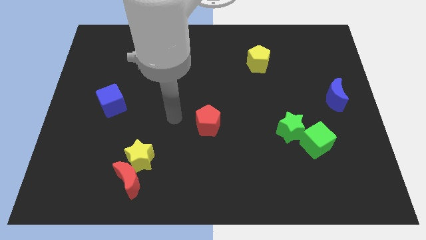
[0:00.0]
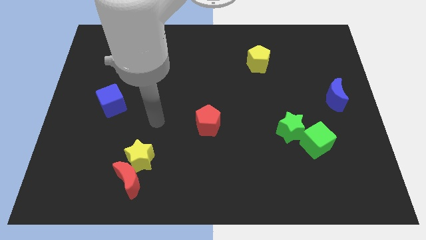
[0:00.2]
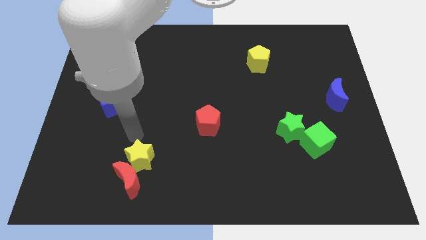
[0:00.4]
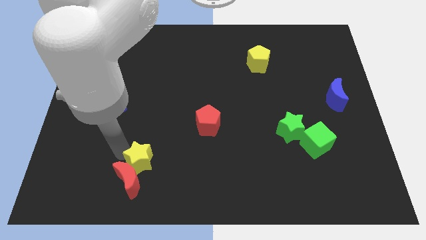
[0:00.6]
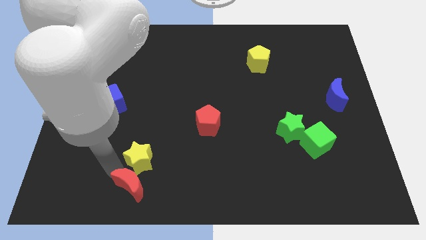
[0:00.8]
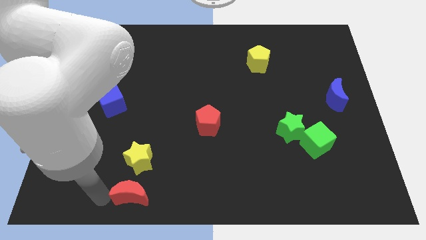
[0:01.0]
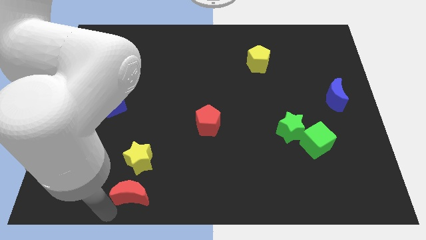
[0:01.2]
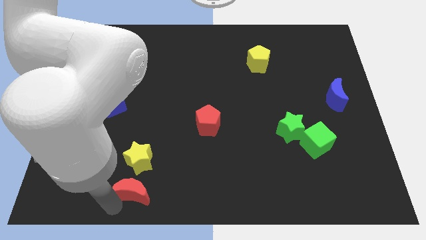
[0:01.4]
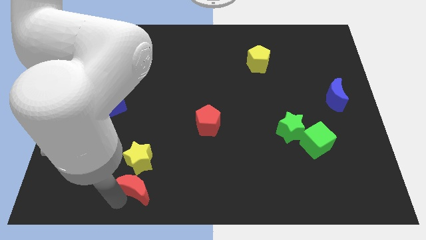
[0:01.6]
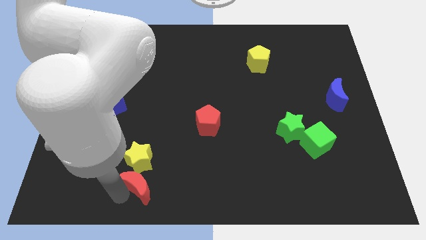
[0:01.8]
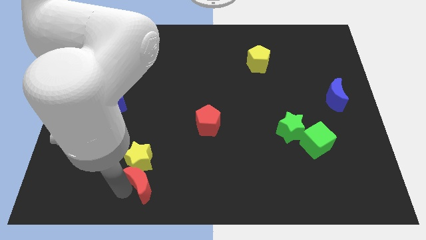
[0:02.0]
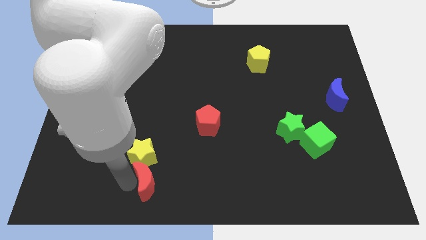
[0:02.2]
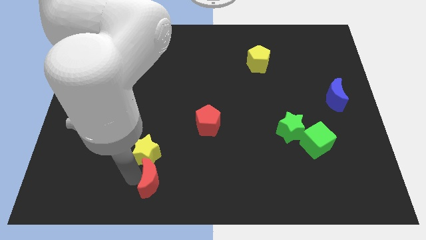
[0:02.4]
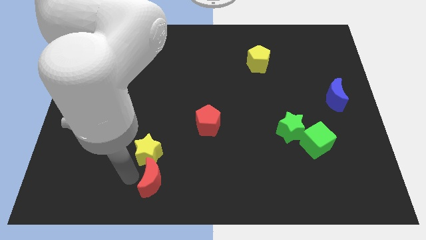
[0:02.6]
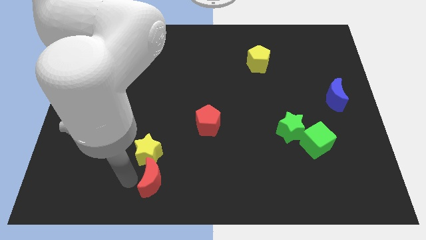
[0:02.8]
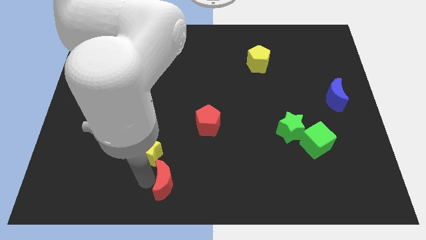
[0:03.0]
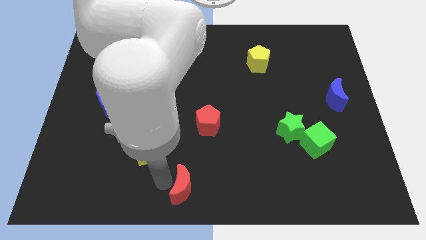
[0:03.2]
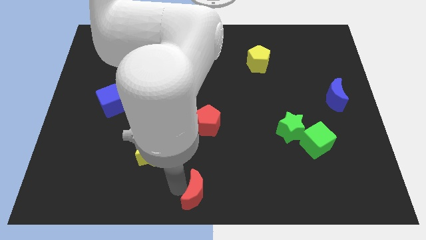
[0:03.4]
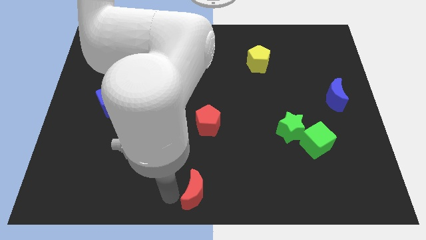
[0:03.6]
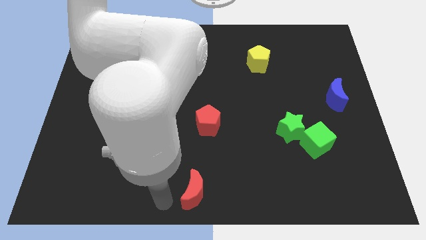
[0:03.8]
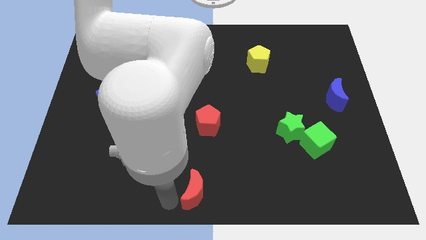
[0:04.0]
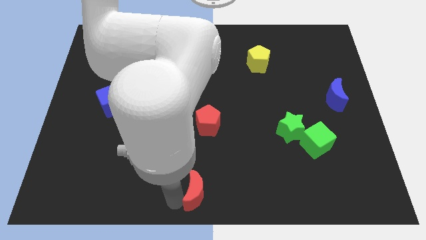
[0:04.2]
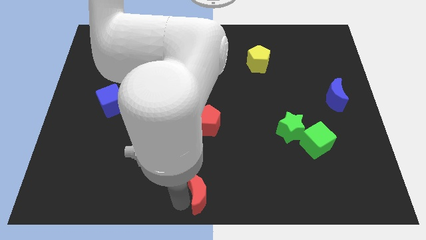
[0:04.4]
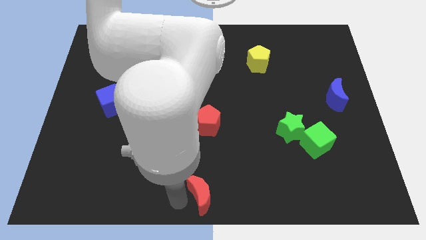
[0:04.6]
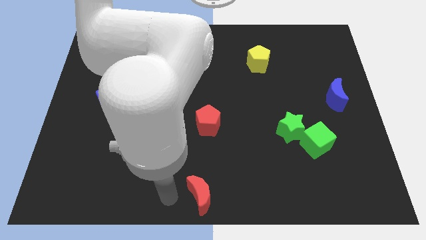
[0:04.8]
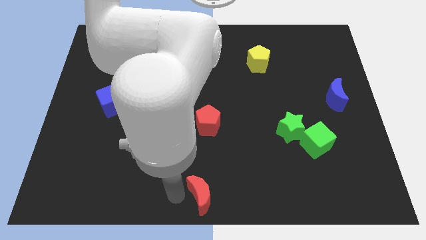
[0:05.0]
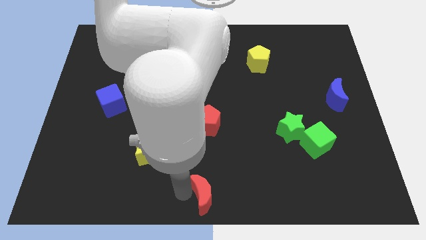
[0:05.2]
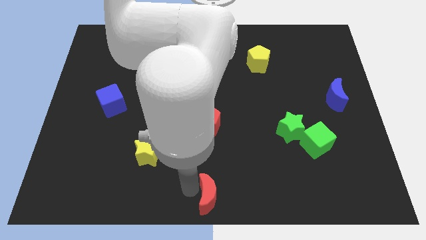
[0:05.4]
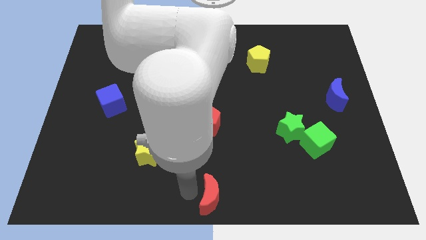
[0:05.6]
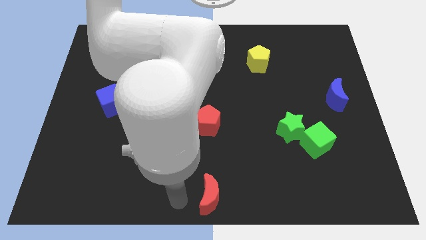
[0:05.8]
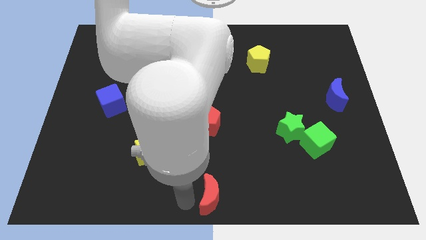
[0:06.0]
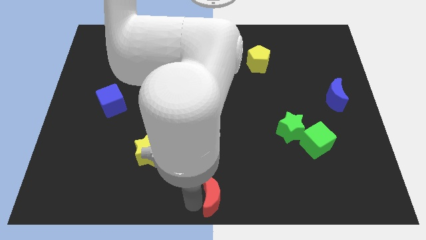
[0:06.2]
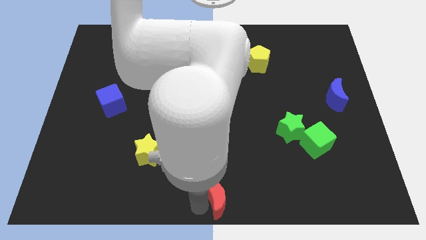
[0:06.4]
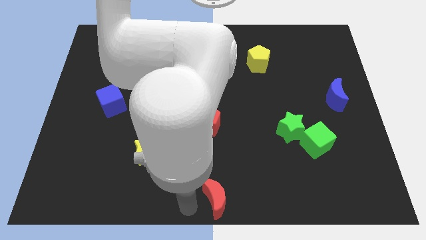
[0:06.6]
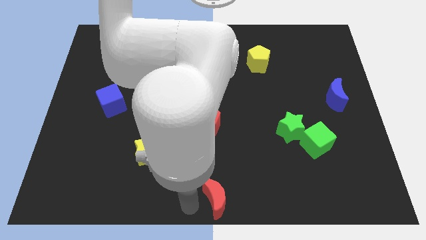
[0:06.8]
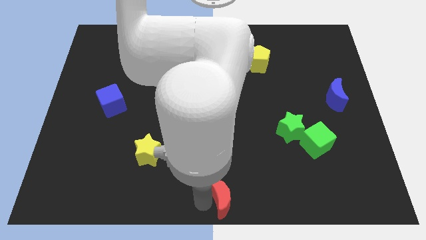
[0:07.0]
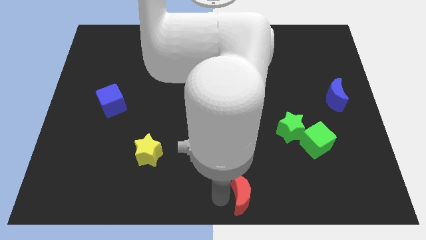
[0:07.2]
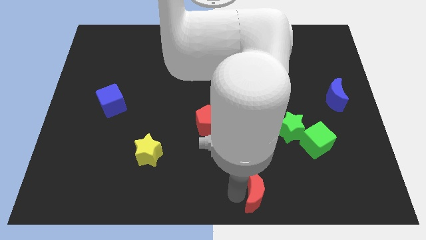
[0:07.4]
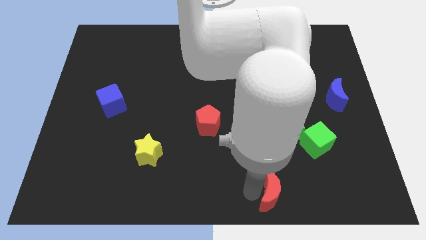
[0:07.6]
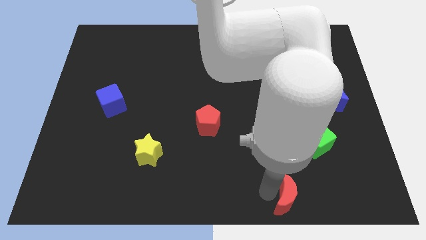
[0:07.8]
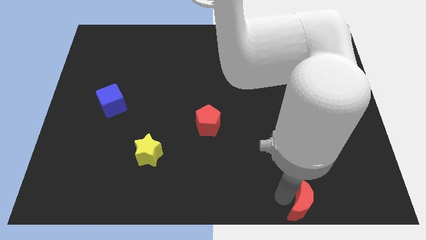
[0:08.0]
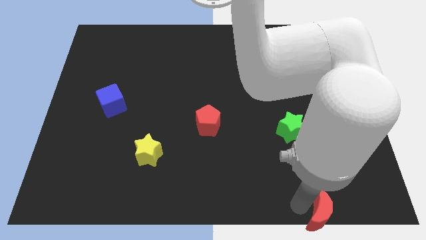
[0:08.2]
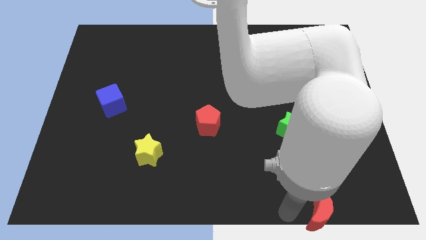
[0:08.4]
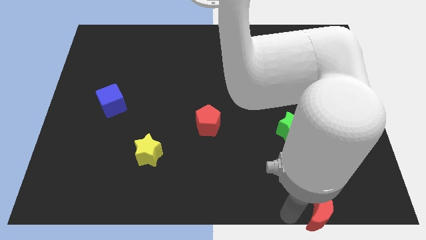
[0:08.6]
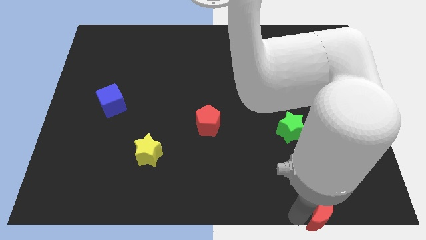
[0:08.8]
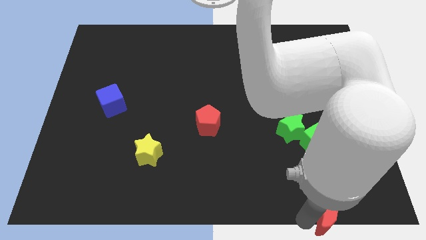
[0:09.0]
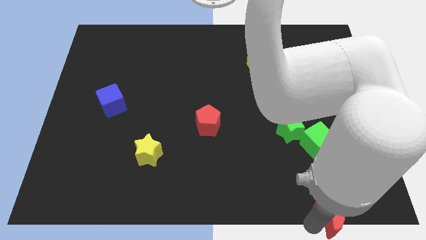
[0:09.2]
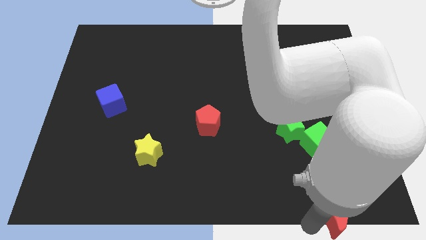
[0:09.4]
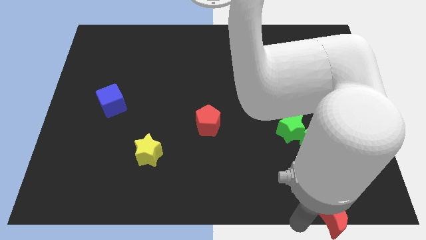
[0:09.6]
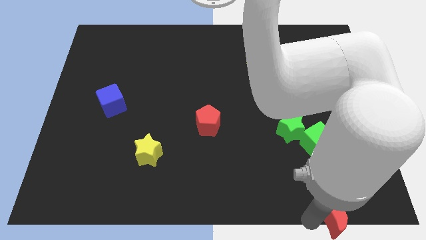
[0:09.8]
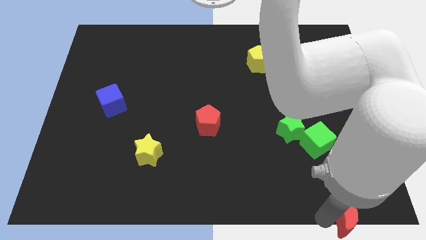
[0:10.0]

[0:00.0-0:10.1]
move the red moon to the bottom right of the board

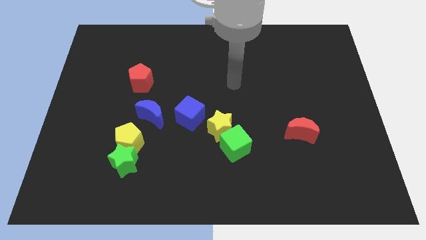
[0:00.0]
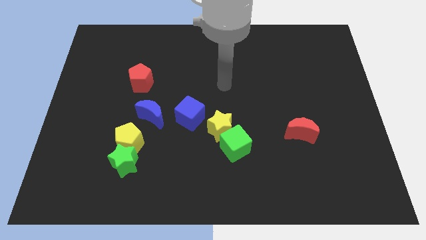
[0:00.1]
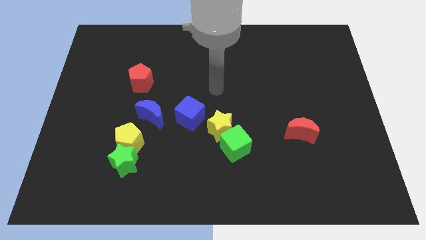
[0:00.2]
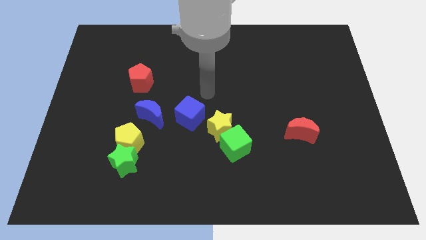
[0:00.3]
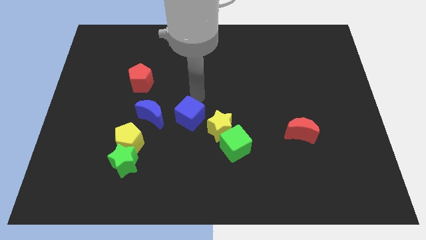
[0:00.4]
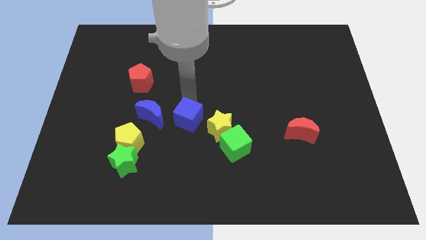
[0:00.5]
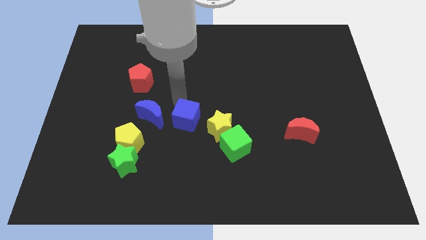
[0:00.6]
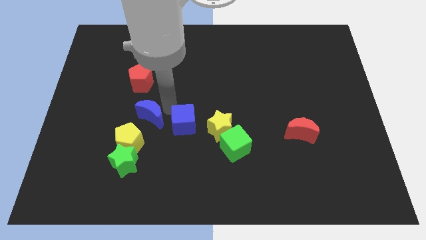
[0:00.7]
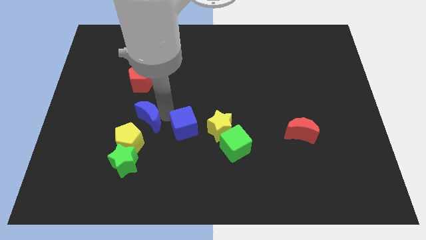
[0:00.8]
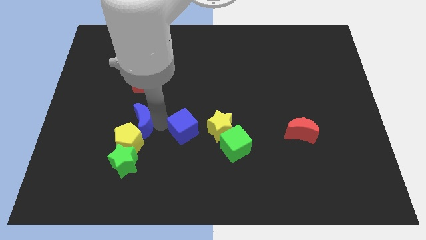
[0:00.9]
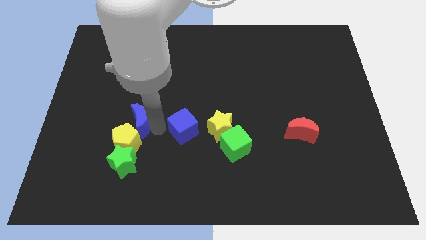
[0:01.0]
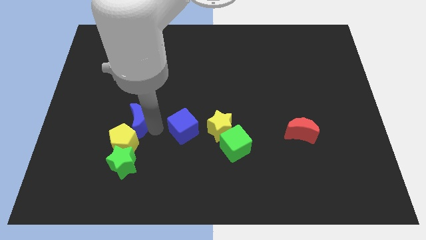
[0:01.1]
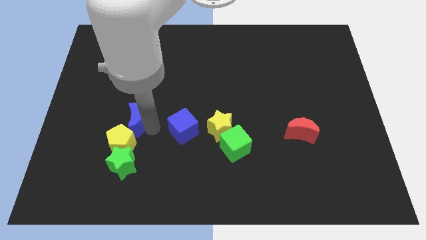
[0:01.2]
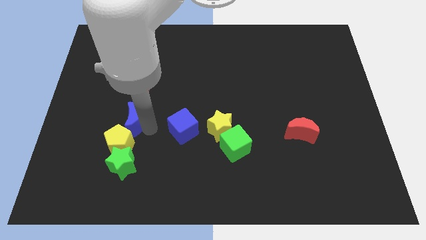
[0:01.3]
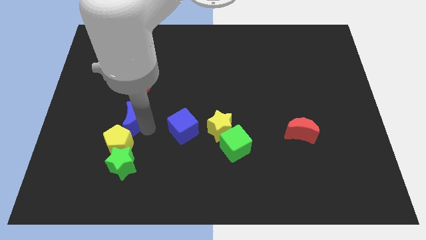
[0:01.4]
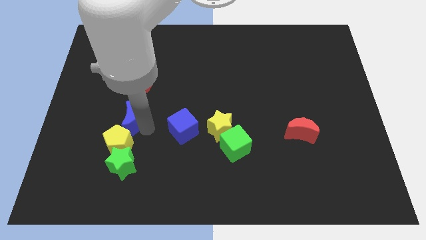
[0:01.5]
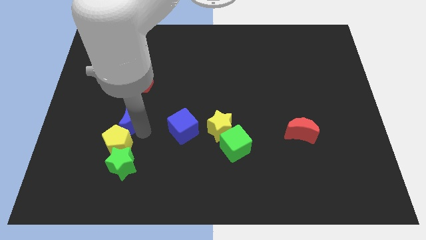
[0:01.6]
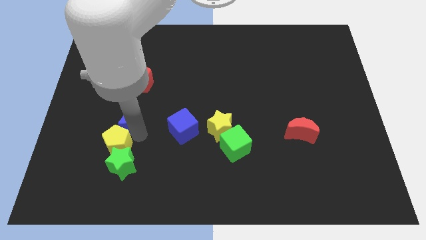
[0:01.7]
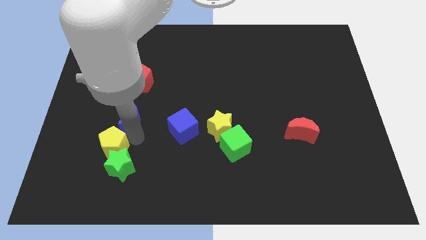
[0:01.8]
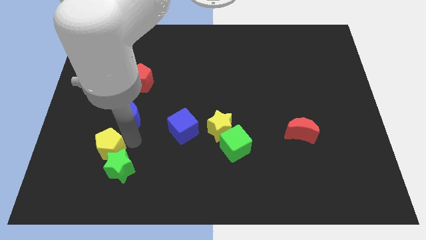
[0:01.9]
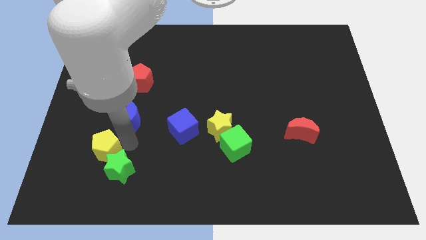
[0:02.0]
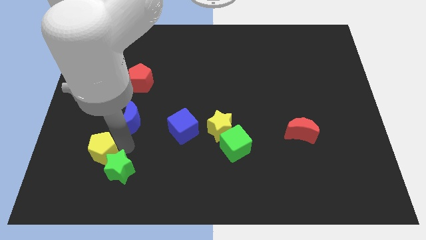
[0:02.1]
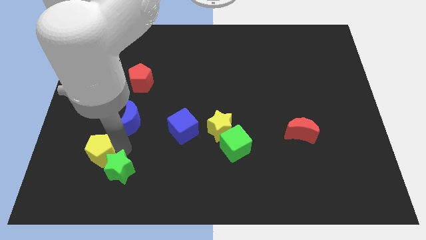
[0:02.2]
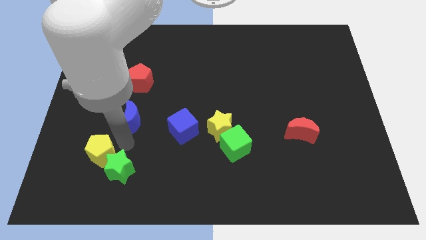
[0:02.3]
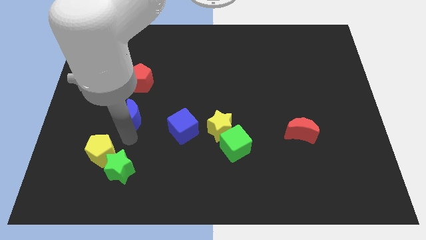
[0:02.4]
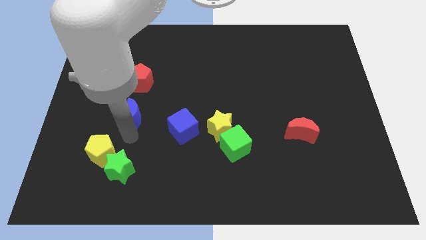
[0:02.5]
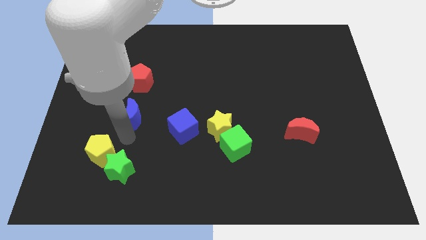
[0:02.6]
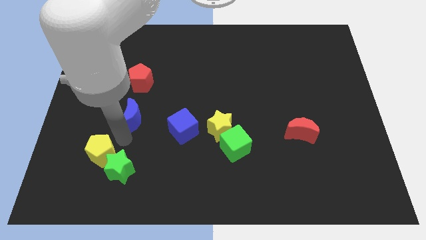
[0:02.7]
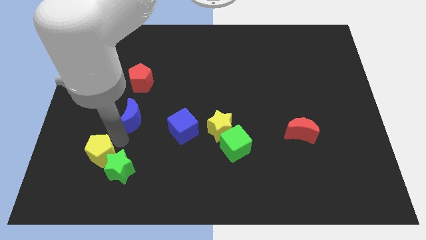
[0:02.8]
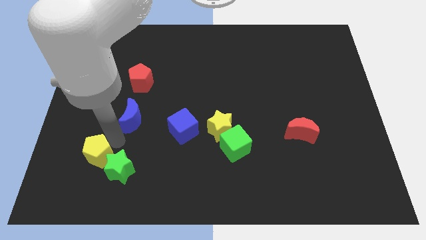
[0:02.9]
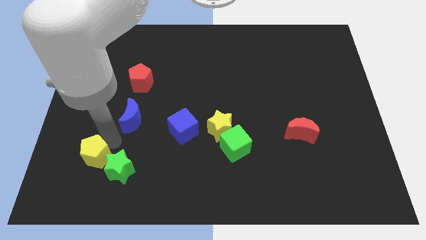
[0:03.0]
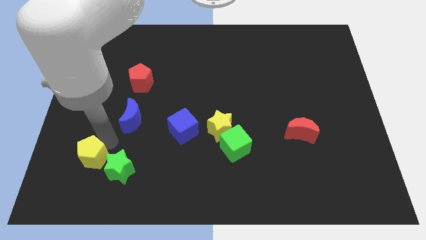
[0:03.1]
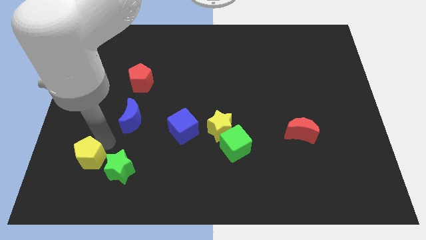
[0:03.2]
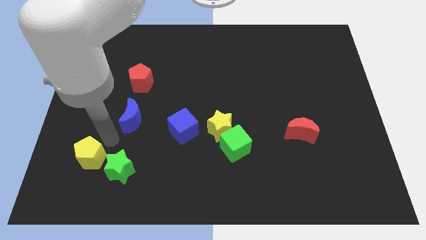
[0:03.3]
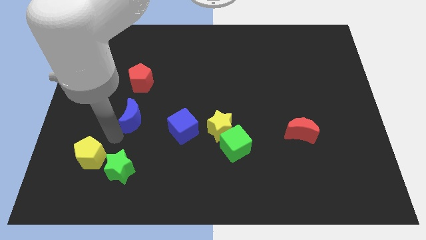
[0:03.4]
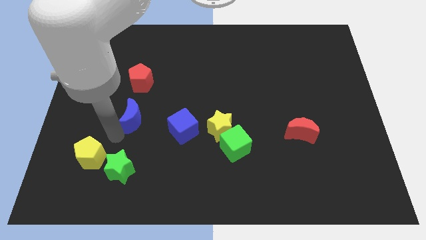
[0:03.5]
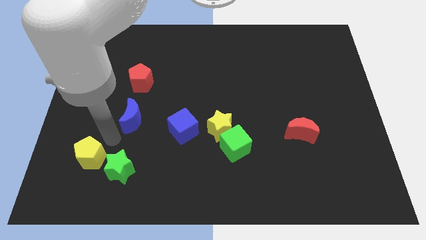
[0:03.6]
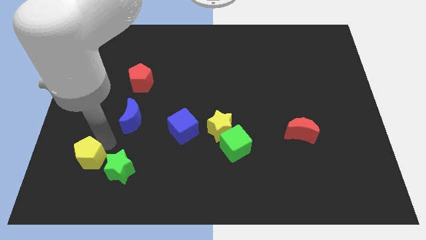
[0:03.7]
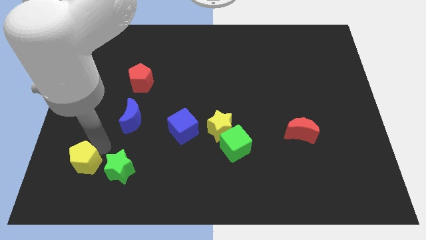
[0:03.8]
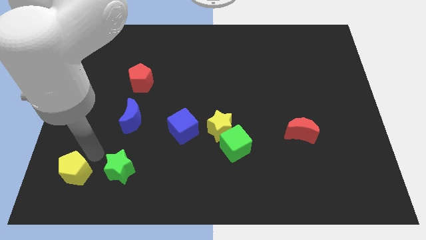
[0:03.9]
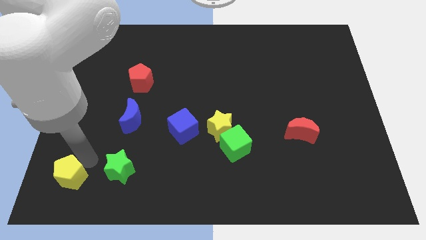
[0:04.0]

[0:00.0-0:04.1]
slide the yellow pentagon to the bottom left of the board
